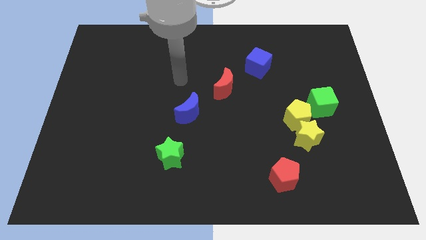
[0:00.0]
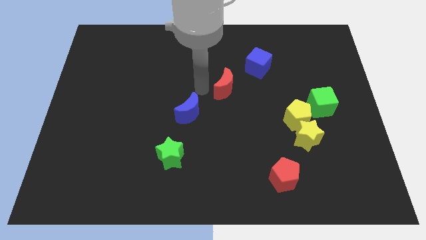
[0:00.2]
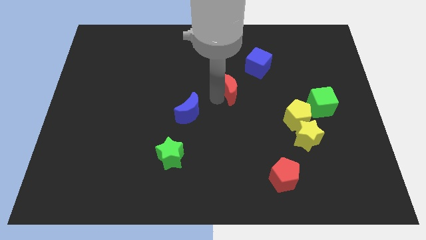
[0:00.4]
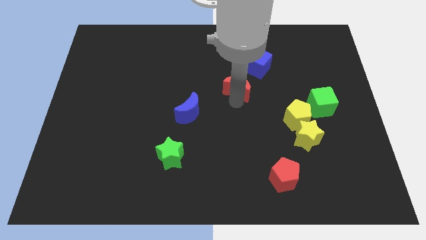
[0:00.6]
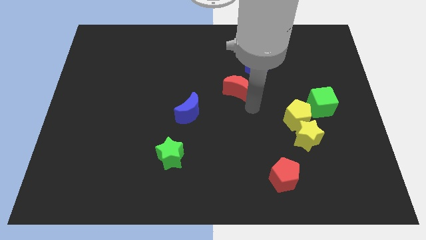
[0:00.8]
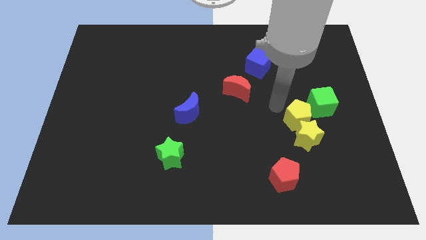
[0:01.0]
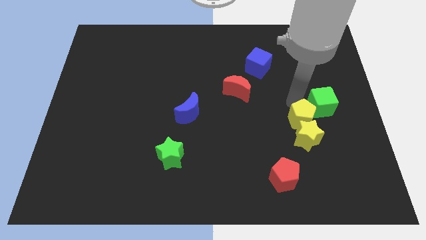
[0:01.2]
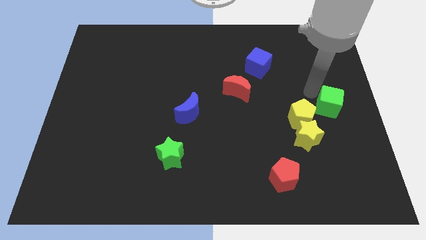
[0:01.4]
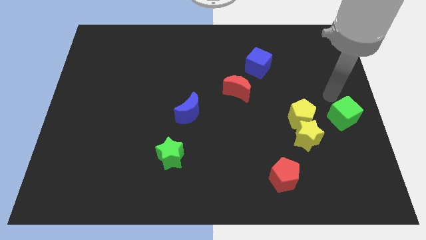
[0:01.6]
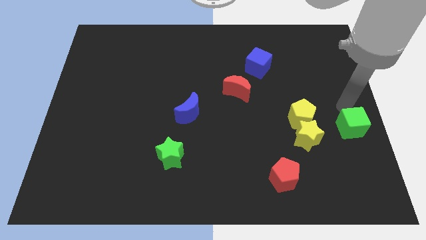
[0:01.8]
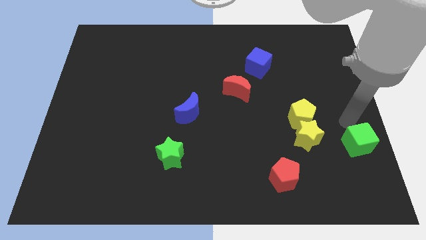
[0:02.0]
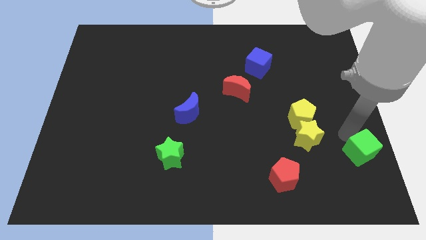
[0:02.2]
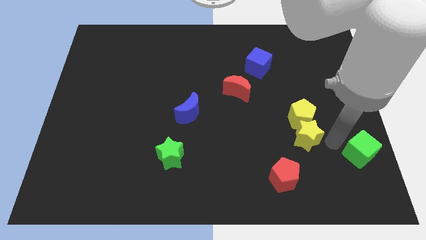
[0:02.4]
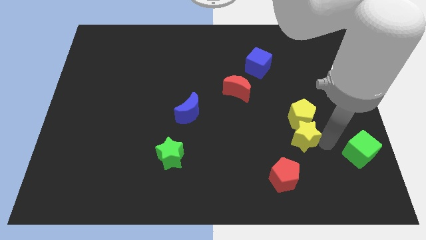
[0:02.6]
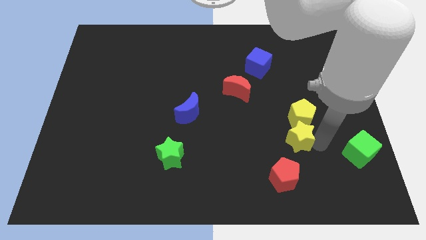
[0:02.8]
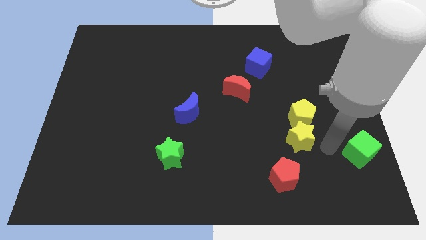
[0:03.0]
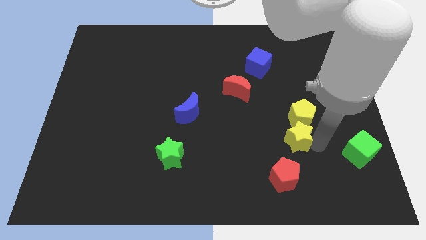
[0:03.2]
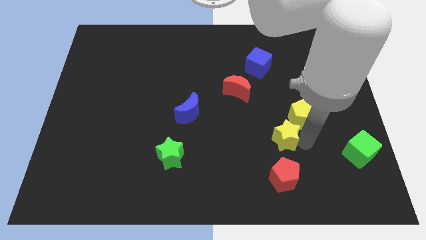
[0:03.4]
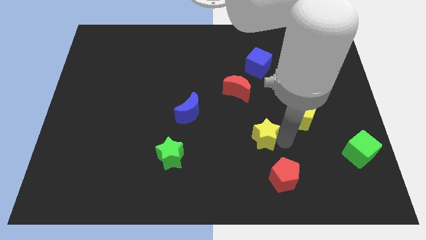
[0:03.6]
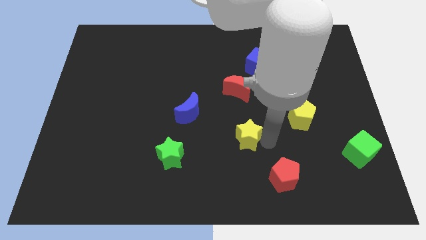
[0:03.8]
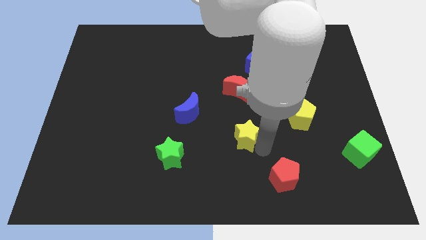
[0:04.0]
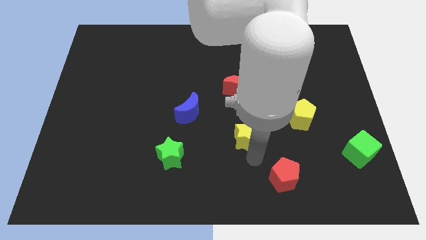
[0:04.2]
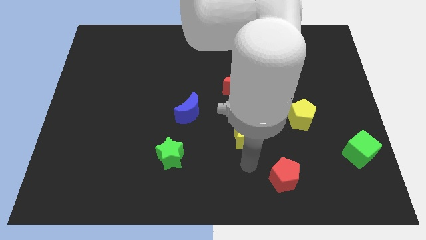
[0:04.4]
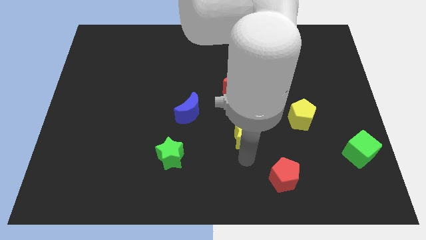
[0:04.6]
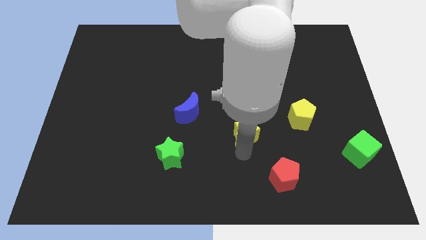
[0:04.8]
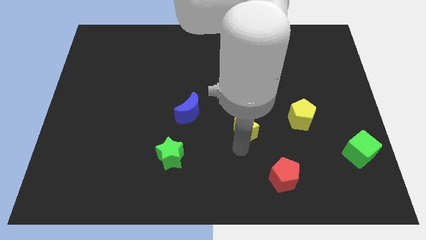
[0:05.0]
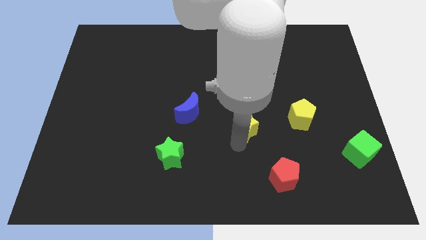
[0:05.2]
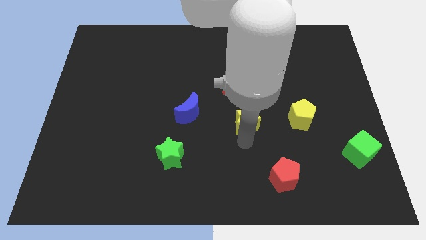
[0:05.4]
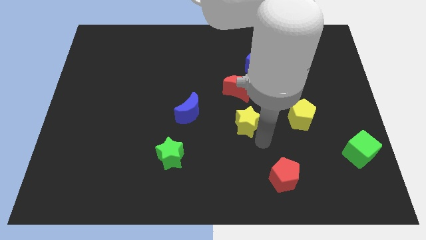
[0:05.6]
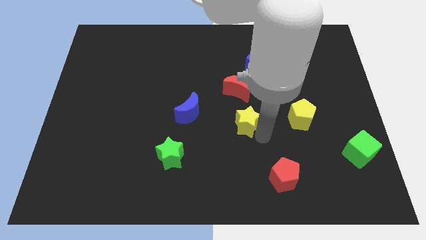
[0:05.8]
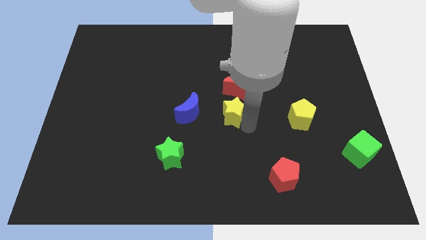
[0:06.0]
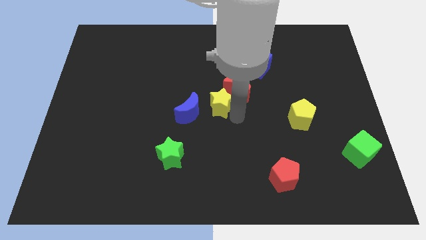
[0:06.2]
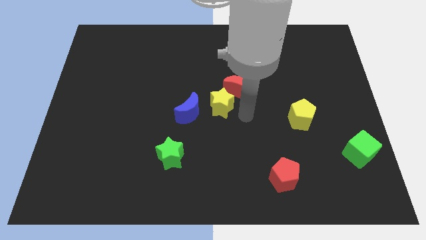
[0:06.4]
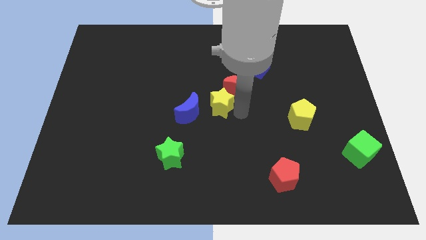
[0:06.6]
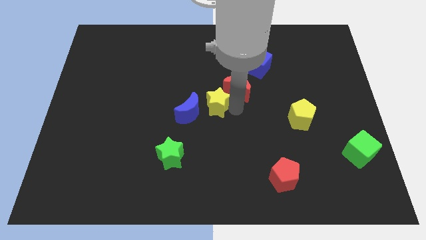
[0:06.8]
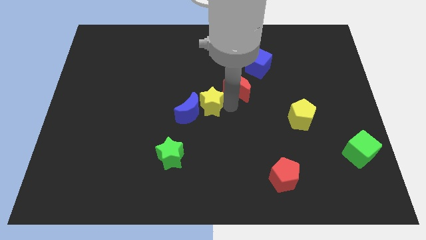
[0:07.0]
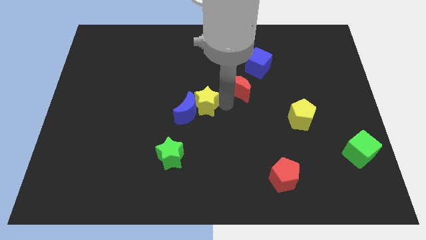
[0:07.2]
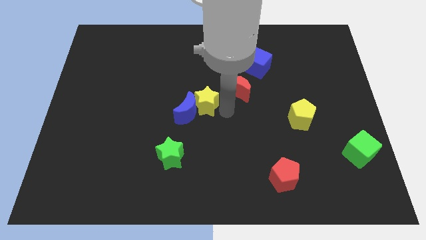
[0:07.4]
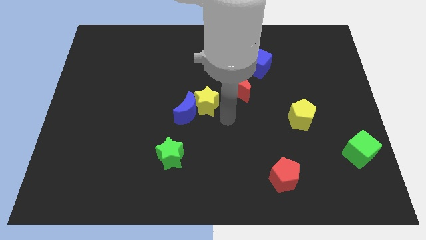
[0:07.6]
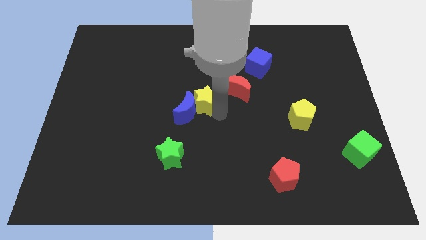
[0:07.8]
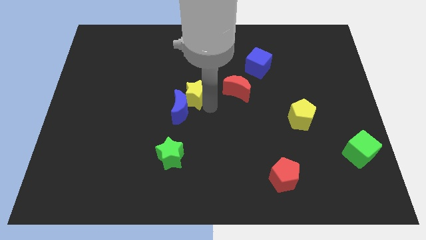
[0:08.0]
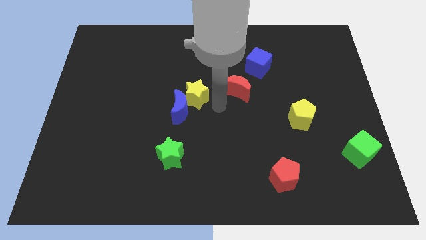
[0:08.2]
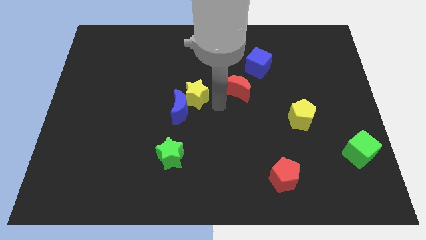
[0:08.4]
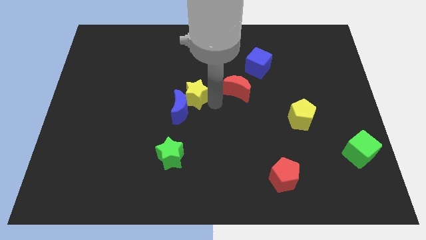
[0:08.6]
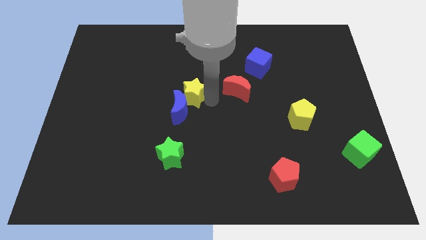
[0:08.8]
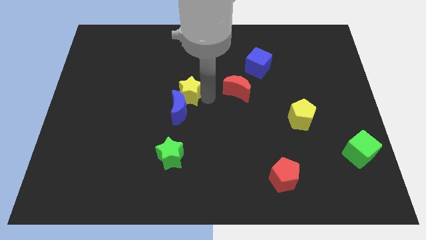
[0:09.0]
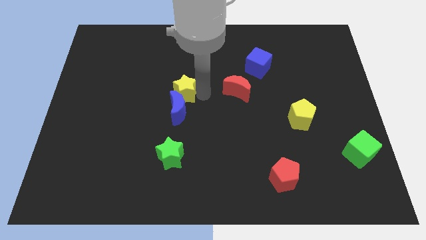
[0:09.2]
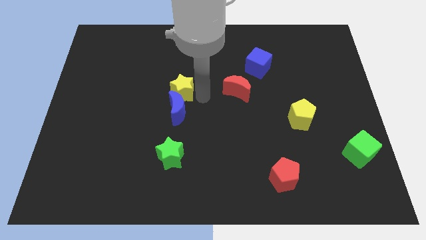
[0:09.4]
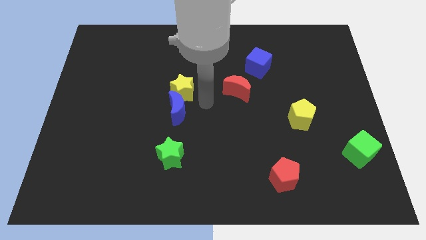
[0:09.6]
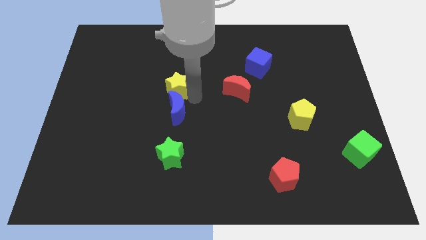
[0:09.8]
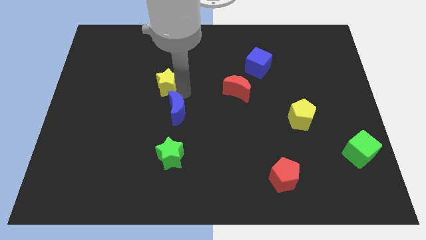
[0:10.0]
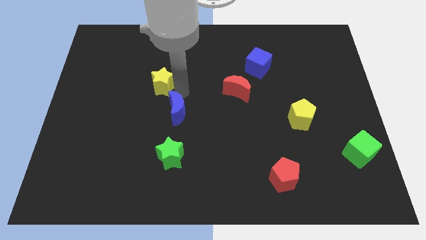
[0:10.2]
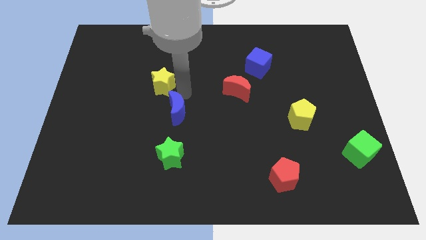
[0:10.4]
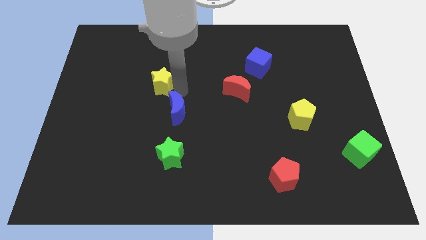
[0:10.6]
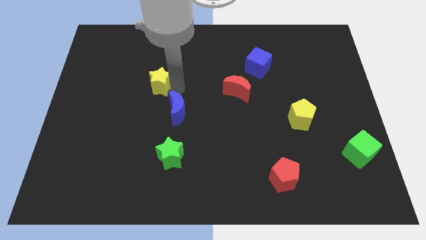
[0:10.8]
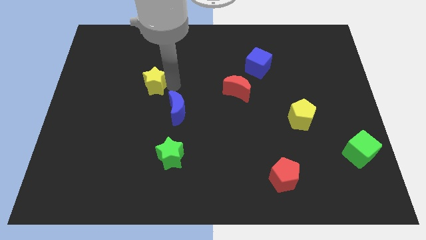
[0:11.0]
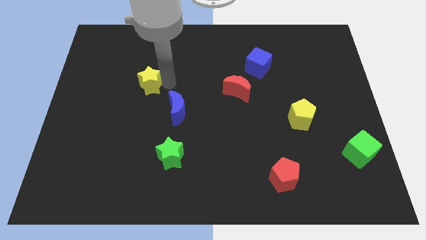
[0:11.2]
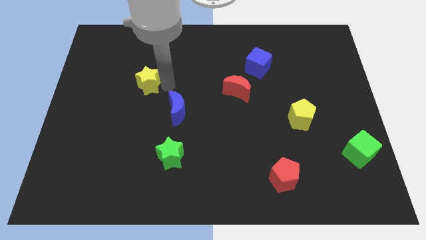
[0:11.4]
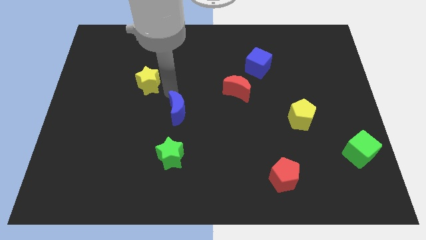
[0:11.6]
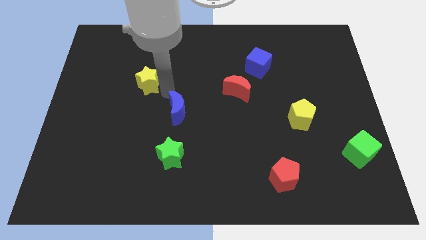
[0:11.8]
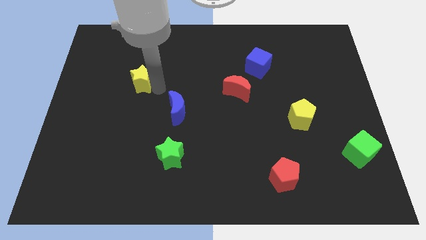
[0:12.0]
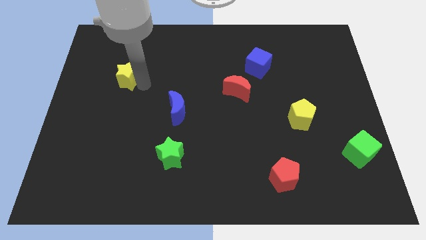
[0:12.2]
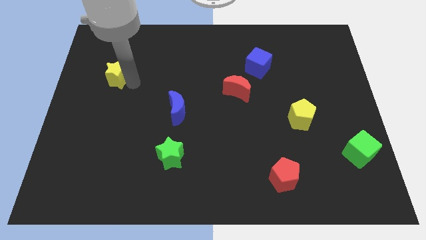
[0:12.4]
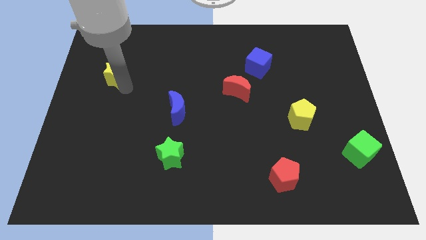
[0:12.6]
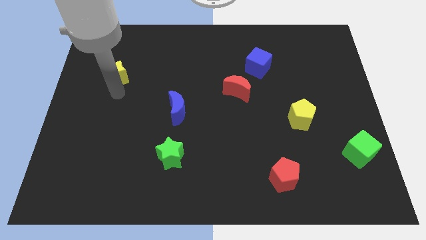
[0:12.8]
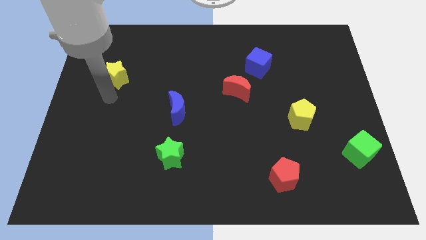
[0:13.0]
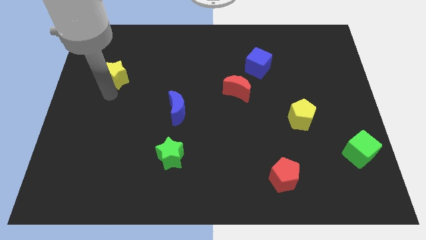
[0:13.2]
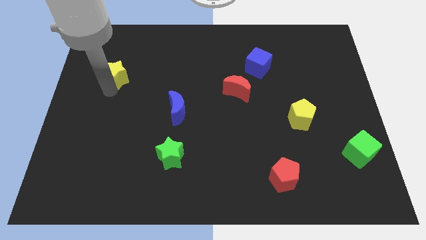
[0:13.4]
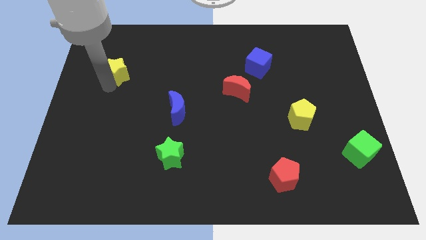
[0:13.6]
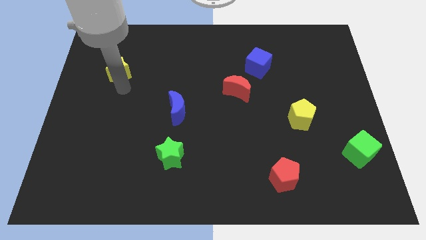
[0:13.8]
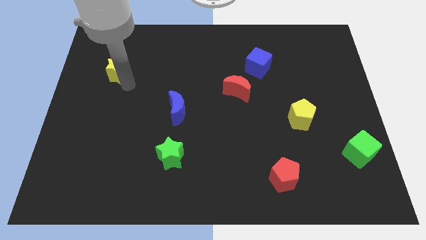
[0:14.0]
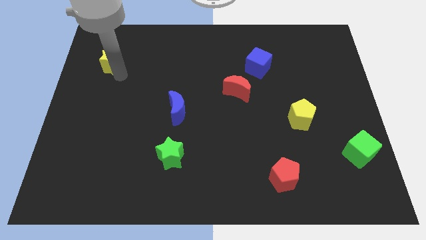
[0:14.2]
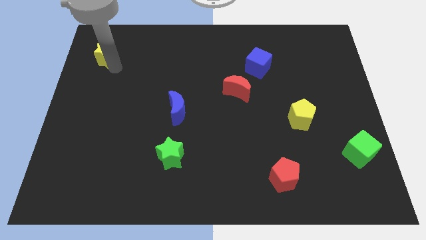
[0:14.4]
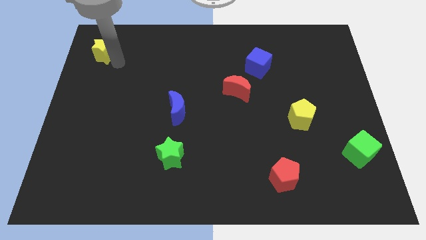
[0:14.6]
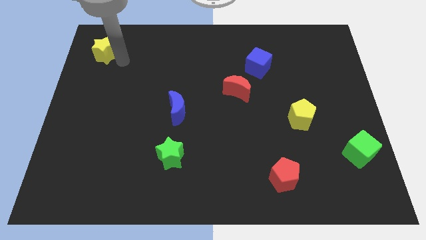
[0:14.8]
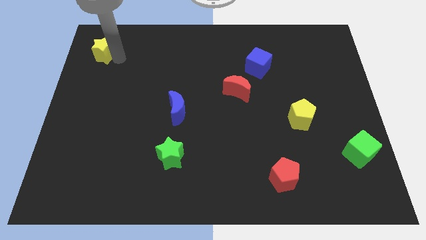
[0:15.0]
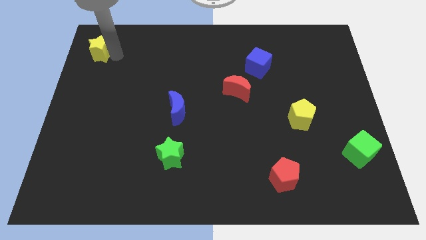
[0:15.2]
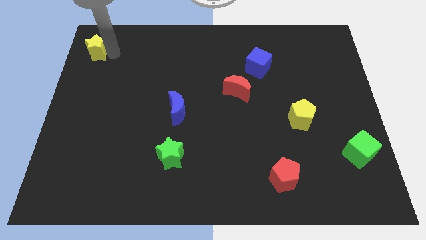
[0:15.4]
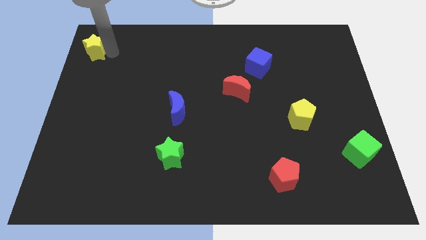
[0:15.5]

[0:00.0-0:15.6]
slide the yellow star to the top left of the board
